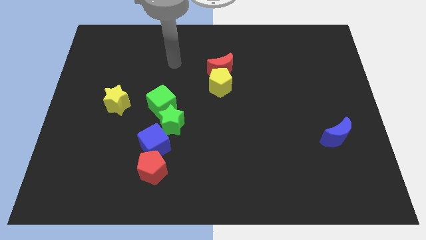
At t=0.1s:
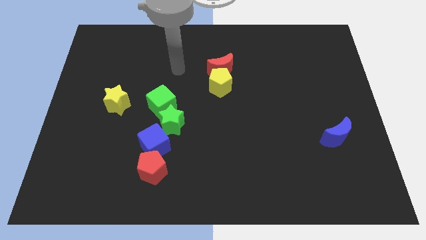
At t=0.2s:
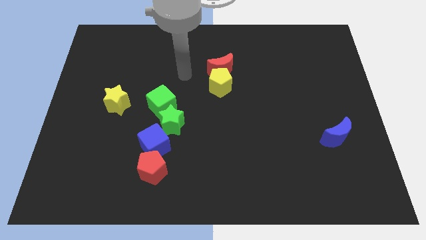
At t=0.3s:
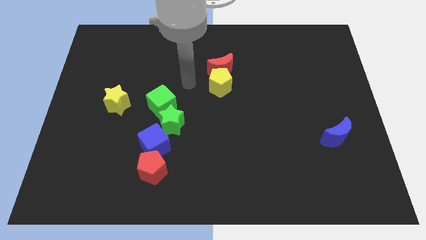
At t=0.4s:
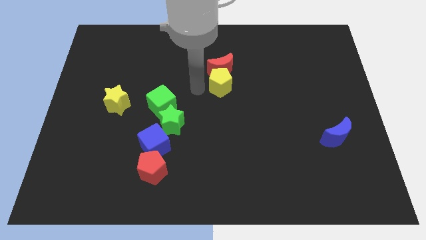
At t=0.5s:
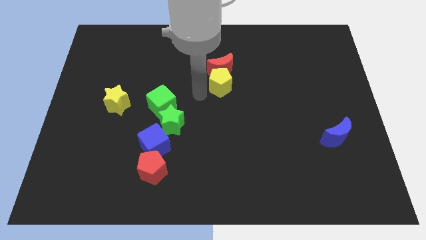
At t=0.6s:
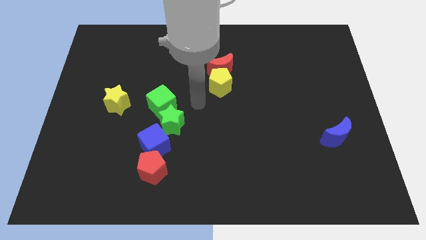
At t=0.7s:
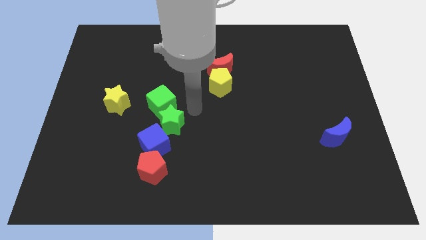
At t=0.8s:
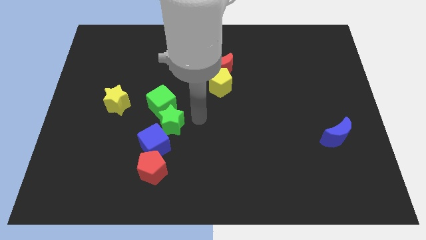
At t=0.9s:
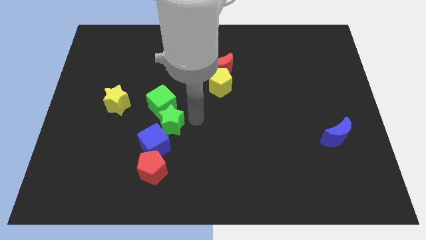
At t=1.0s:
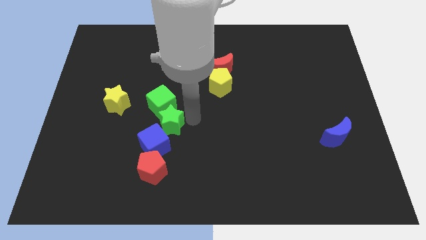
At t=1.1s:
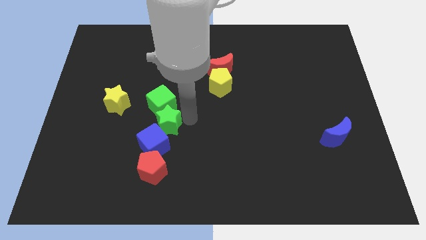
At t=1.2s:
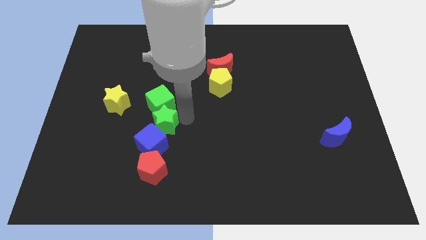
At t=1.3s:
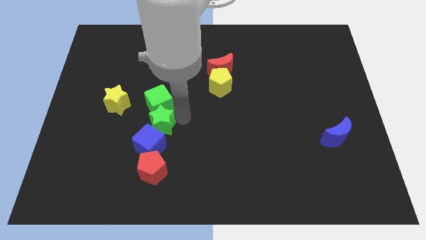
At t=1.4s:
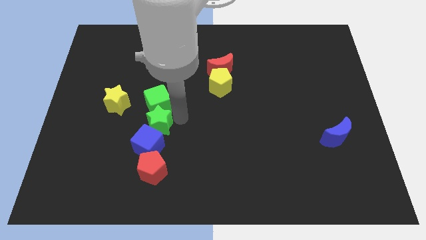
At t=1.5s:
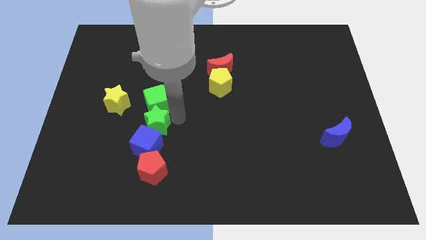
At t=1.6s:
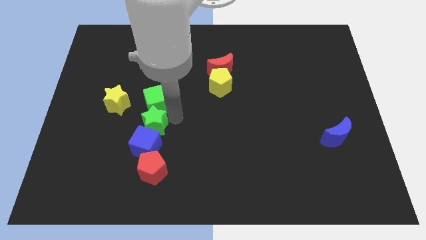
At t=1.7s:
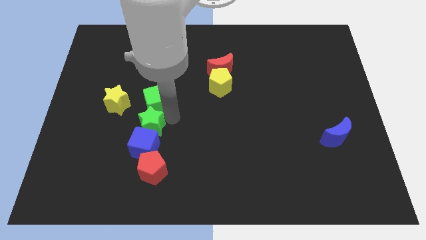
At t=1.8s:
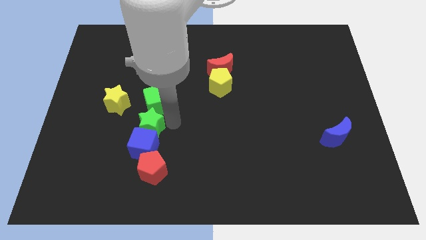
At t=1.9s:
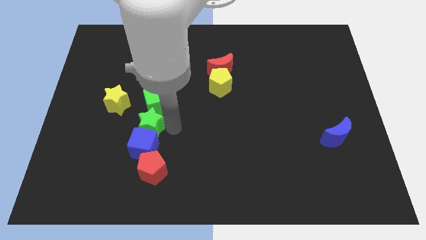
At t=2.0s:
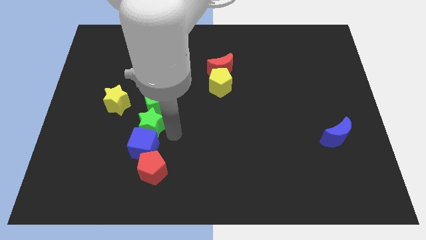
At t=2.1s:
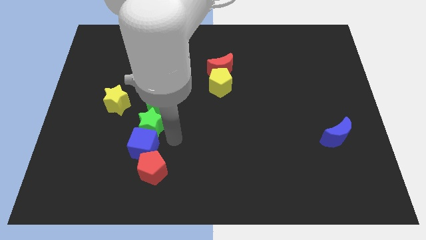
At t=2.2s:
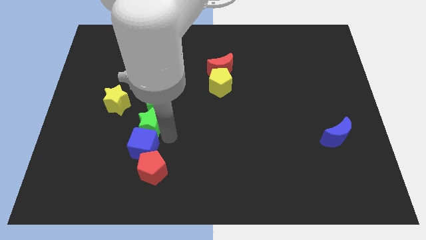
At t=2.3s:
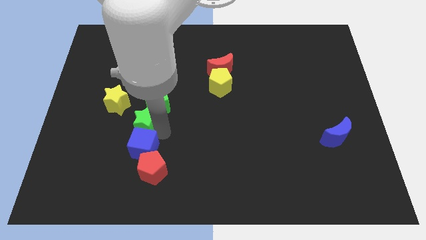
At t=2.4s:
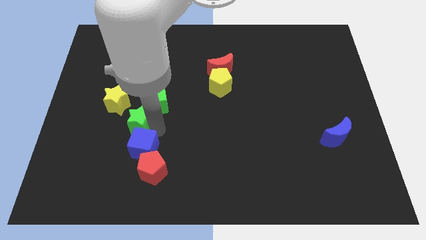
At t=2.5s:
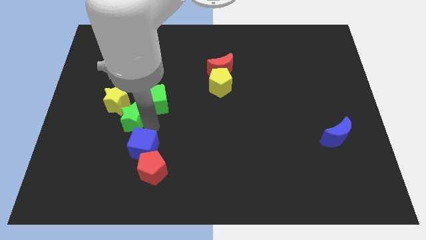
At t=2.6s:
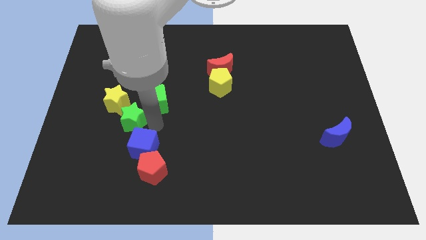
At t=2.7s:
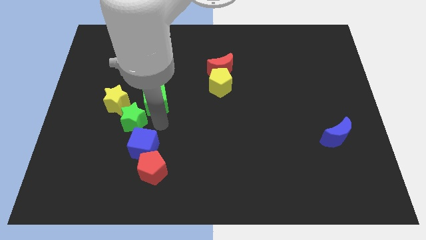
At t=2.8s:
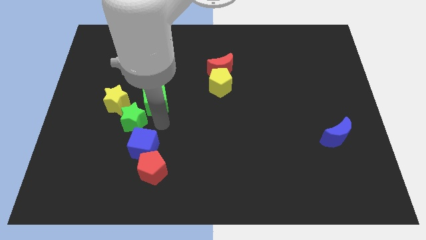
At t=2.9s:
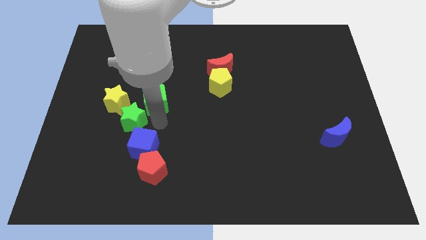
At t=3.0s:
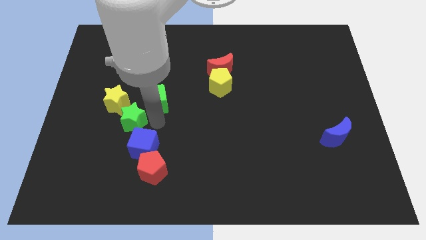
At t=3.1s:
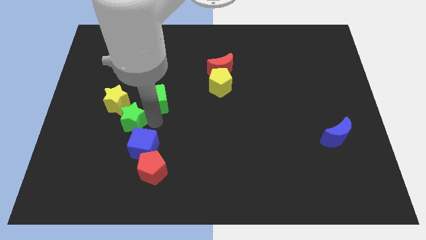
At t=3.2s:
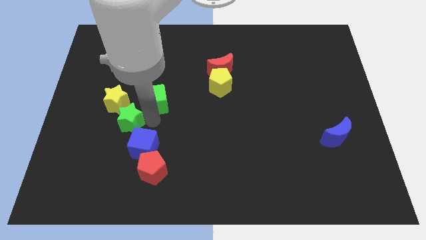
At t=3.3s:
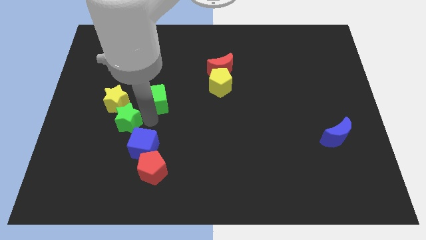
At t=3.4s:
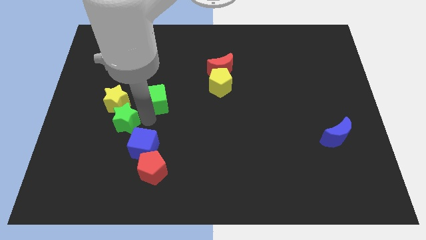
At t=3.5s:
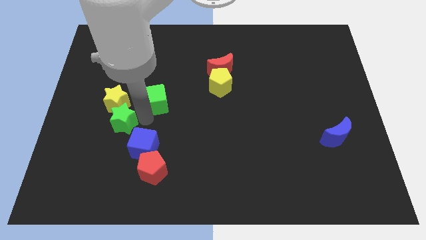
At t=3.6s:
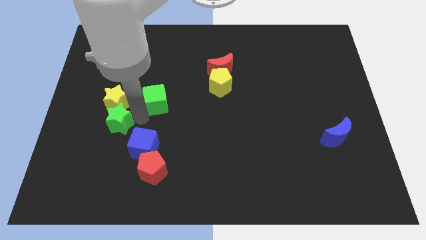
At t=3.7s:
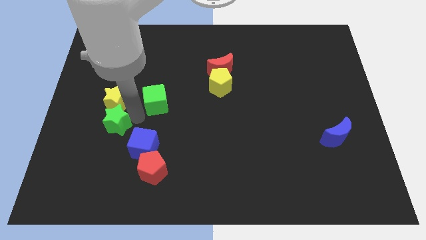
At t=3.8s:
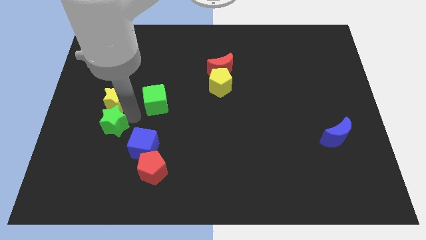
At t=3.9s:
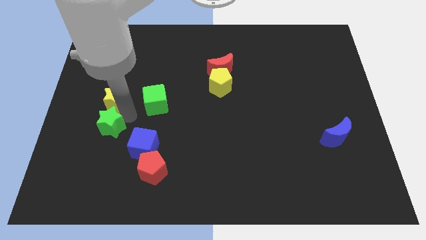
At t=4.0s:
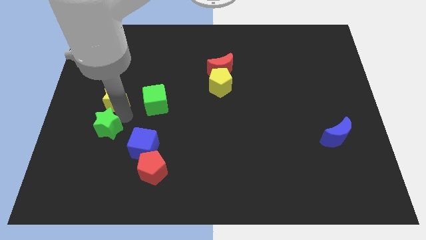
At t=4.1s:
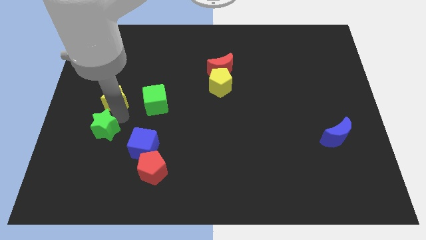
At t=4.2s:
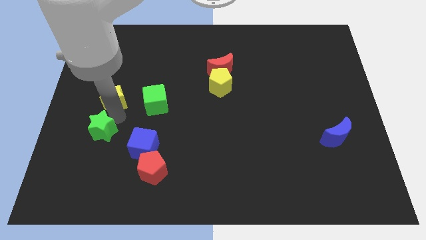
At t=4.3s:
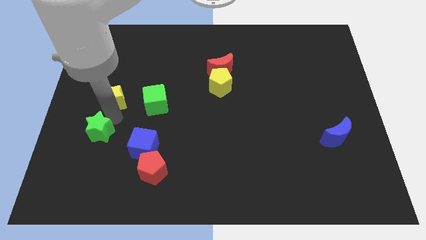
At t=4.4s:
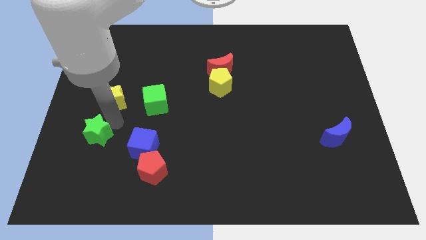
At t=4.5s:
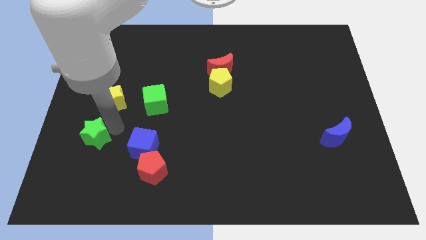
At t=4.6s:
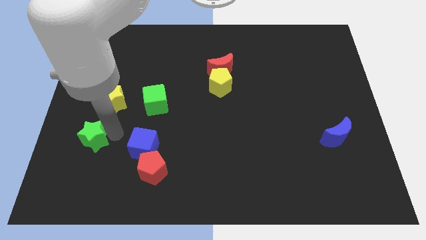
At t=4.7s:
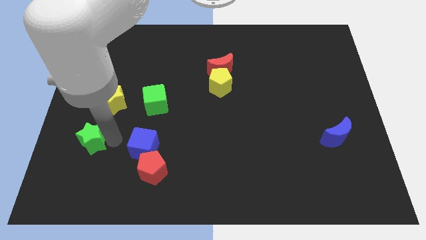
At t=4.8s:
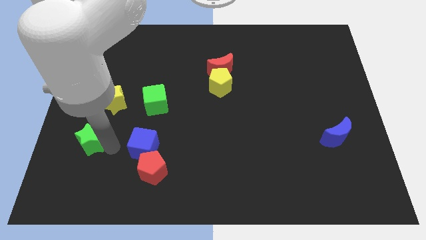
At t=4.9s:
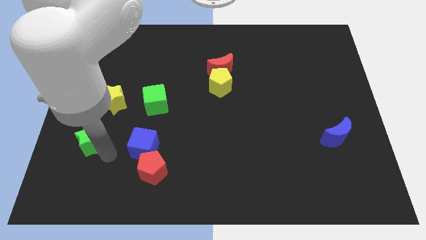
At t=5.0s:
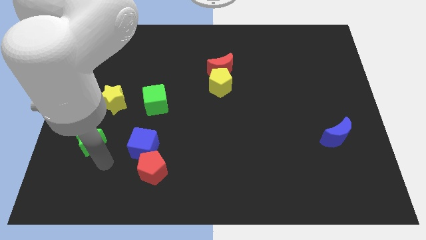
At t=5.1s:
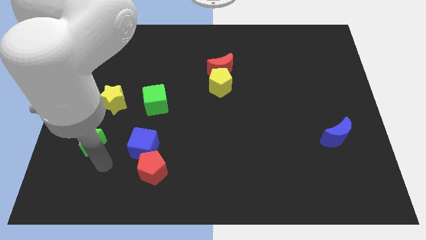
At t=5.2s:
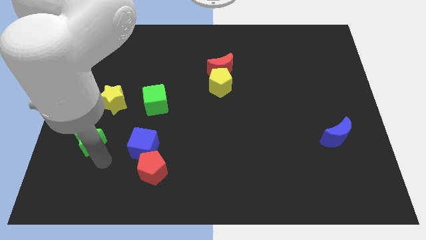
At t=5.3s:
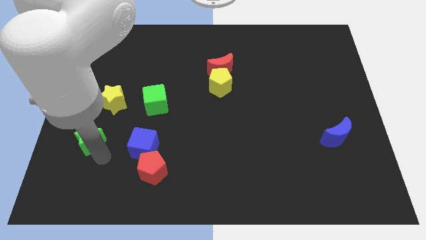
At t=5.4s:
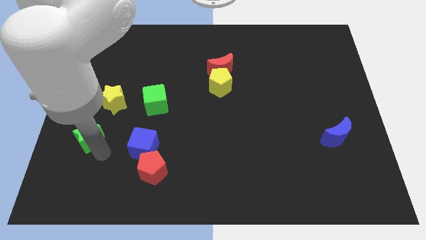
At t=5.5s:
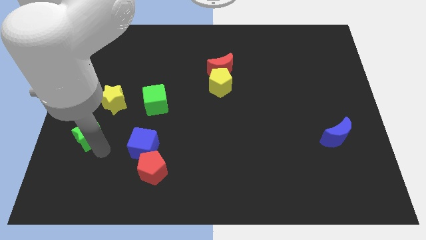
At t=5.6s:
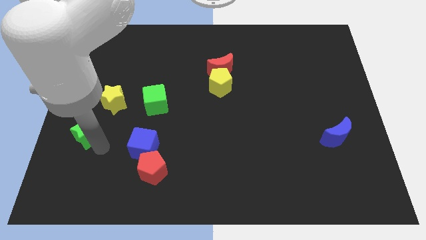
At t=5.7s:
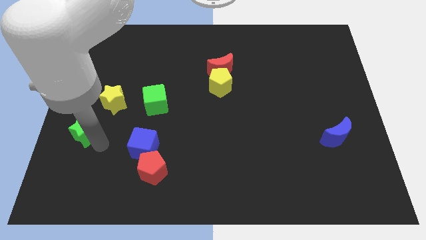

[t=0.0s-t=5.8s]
push the green star to the center left

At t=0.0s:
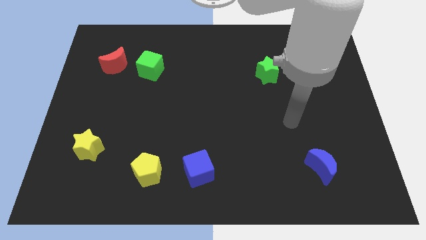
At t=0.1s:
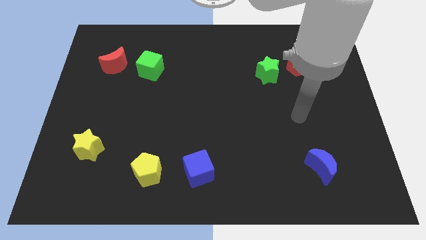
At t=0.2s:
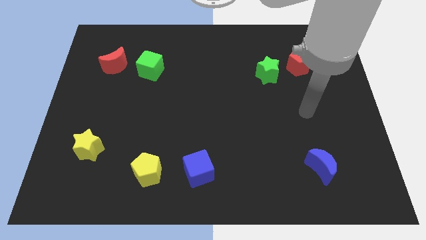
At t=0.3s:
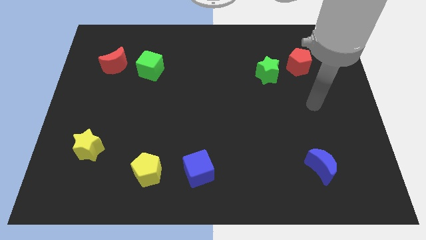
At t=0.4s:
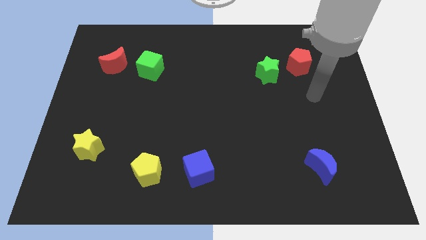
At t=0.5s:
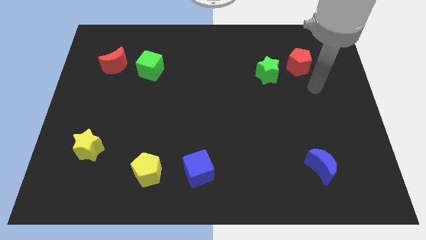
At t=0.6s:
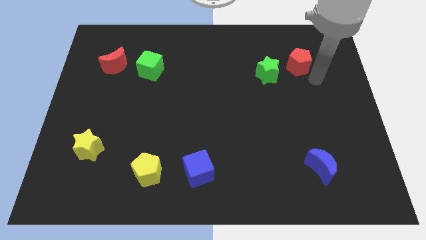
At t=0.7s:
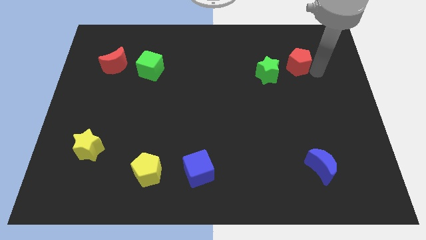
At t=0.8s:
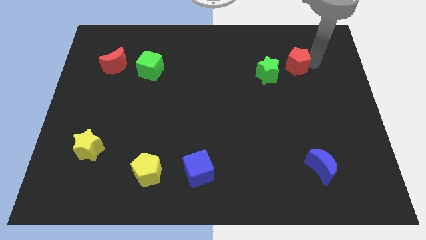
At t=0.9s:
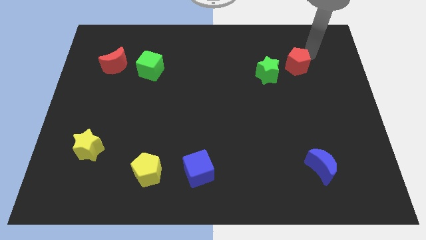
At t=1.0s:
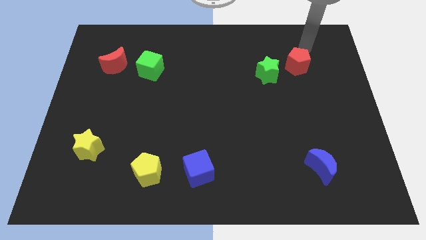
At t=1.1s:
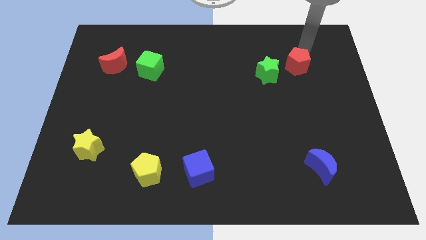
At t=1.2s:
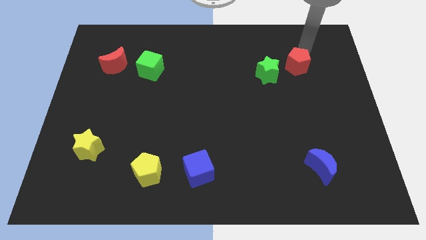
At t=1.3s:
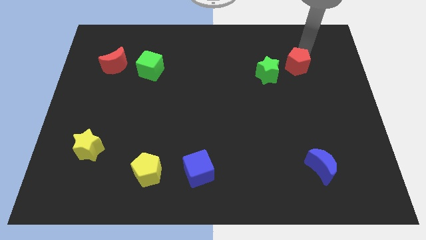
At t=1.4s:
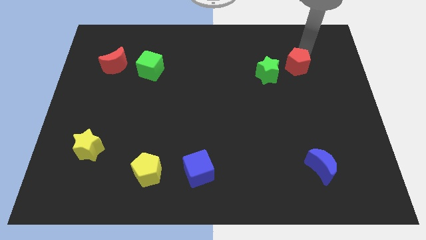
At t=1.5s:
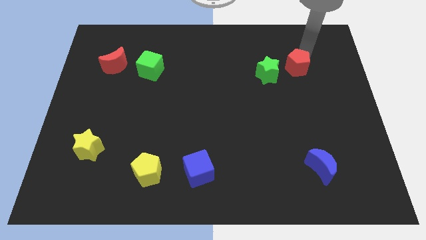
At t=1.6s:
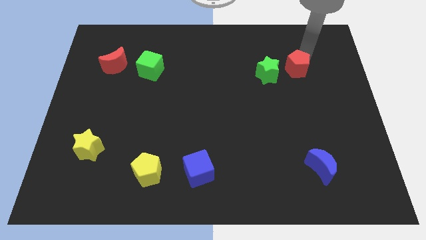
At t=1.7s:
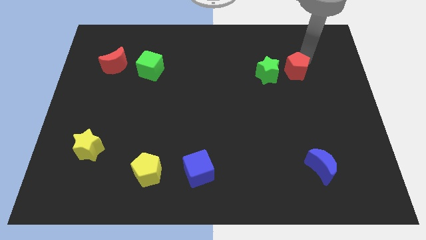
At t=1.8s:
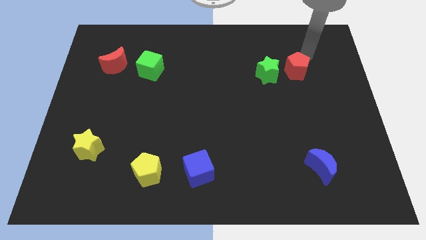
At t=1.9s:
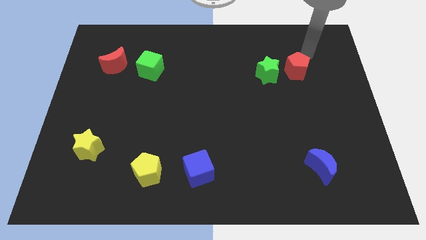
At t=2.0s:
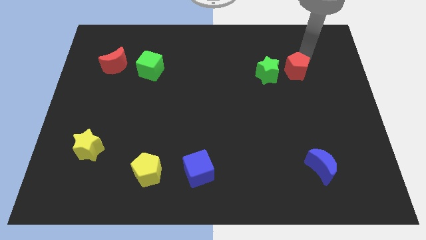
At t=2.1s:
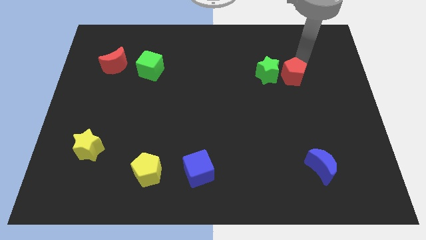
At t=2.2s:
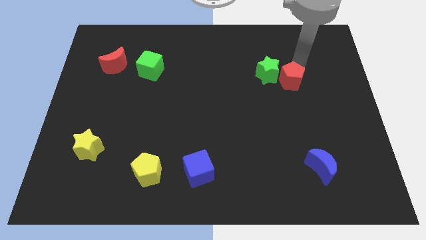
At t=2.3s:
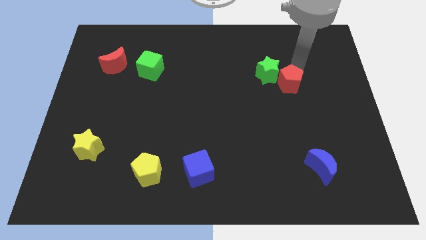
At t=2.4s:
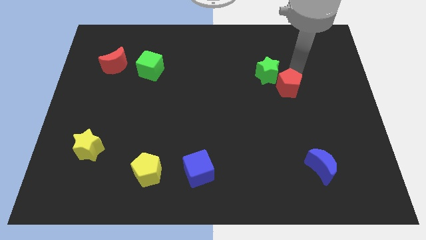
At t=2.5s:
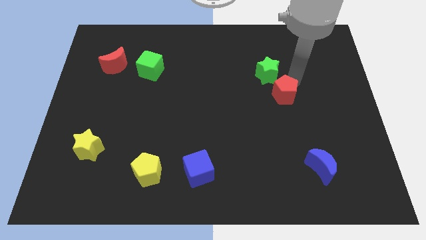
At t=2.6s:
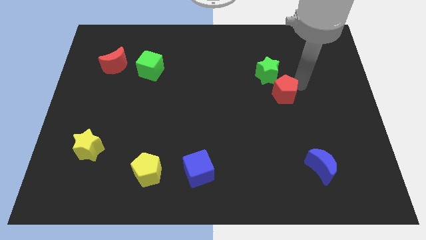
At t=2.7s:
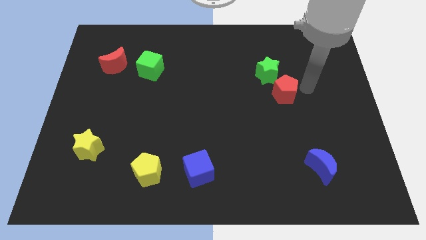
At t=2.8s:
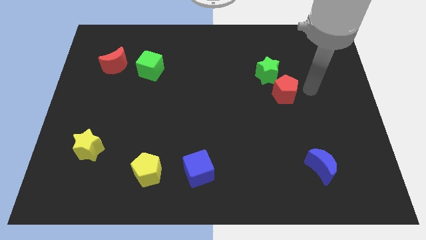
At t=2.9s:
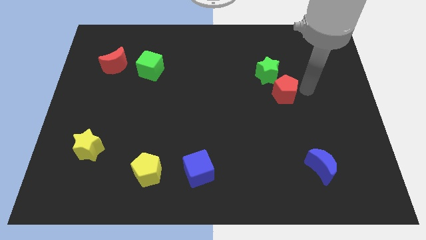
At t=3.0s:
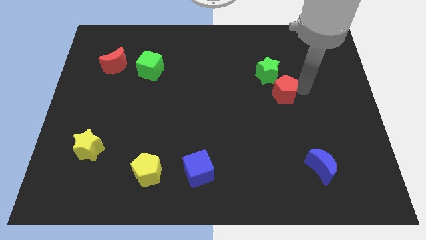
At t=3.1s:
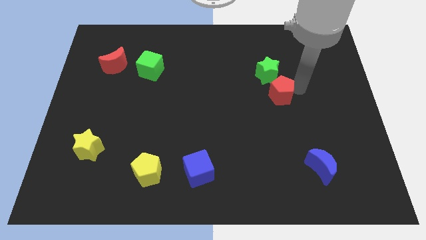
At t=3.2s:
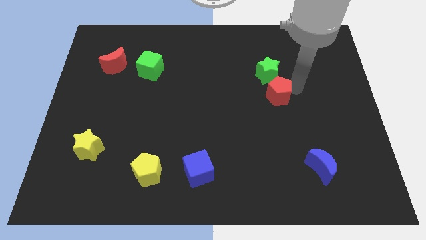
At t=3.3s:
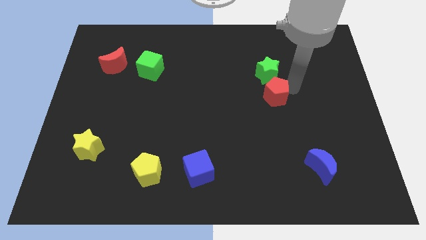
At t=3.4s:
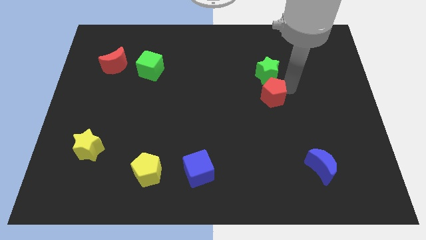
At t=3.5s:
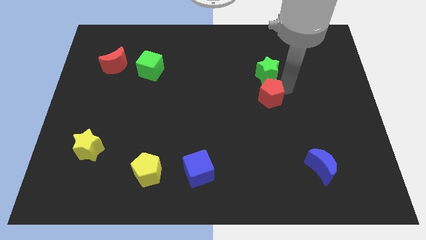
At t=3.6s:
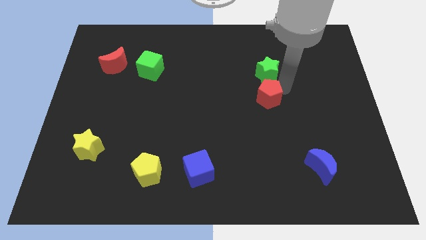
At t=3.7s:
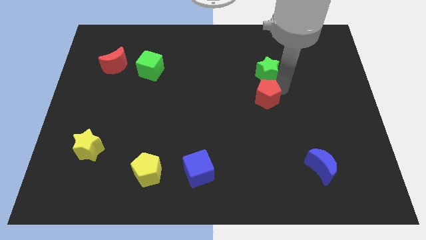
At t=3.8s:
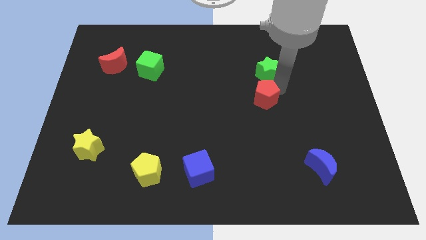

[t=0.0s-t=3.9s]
put the red pentagon to the center of the board
